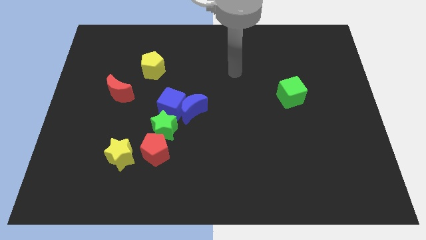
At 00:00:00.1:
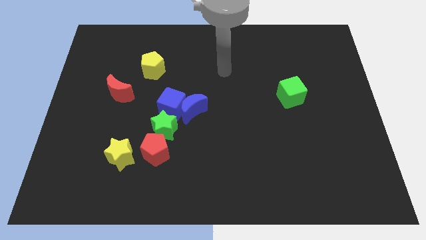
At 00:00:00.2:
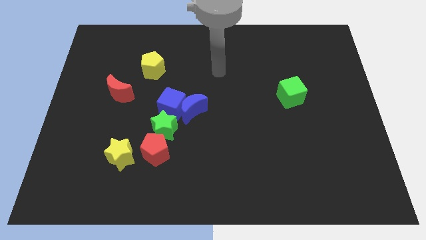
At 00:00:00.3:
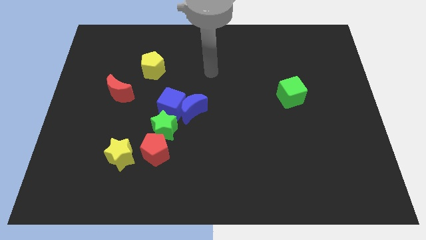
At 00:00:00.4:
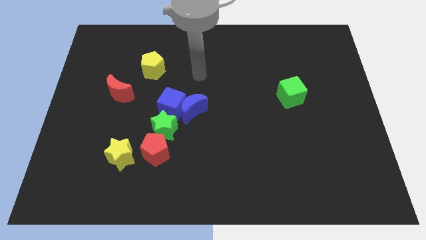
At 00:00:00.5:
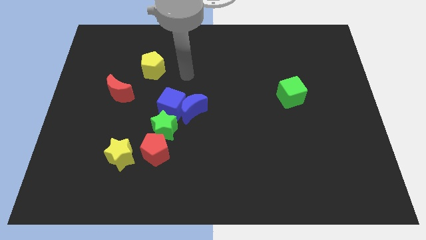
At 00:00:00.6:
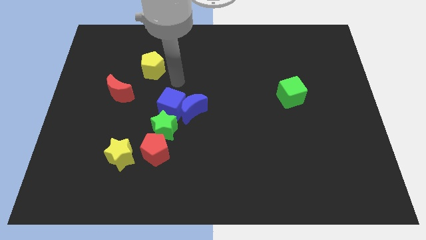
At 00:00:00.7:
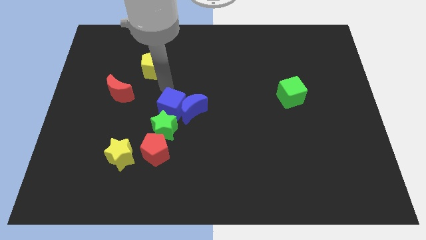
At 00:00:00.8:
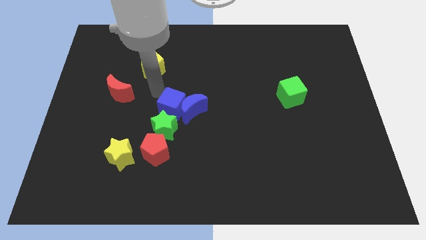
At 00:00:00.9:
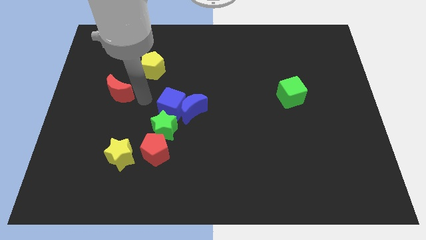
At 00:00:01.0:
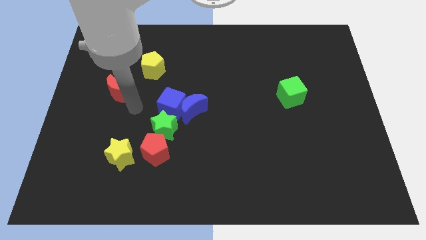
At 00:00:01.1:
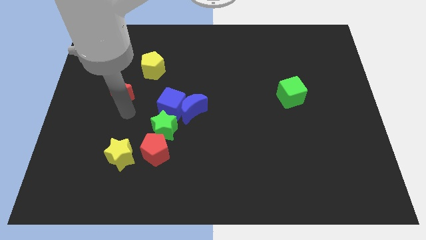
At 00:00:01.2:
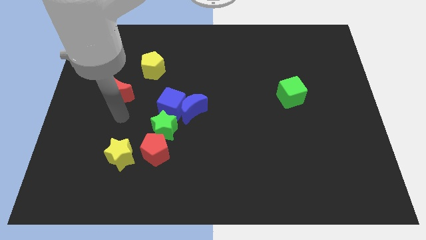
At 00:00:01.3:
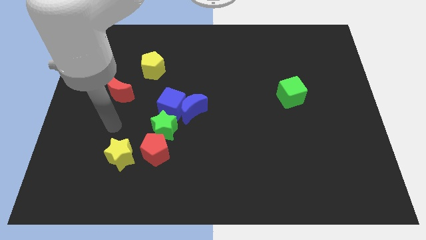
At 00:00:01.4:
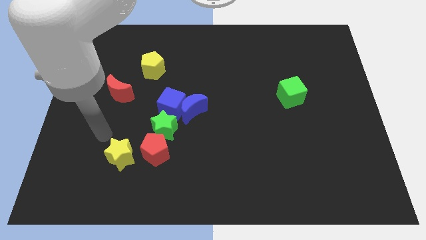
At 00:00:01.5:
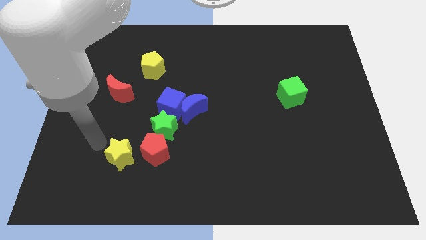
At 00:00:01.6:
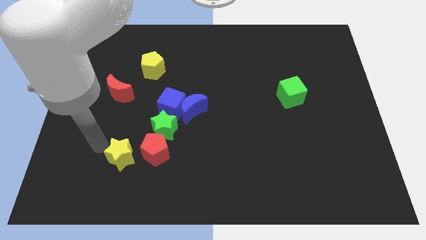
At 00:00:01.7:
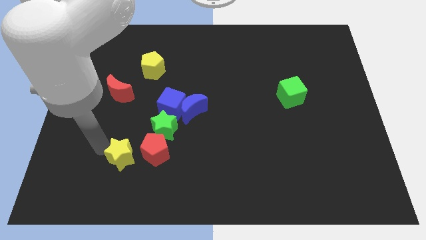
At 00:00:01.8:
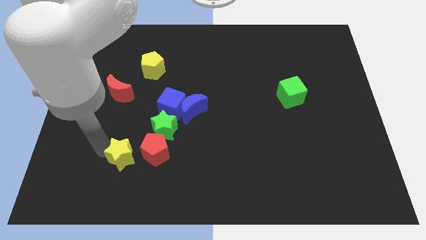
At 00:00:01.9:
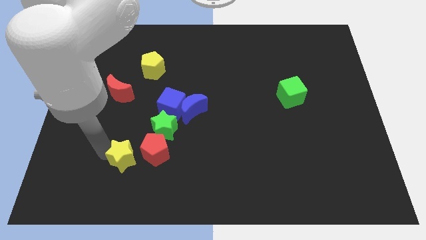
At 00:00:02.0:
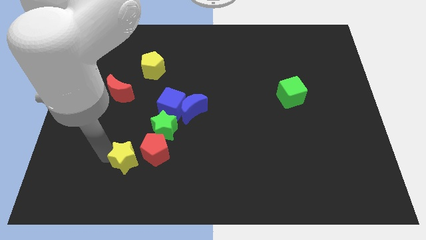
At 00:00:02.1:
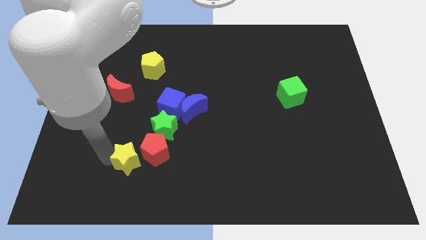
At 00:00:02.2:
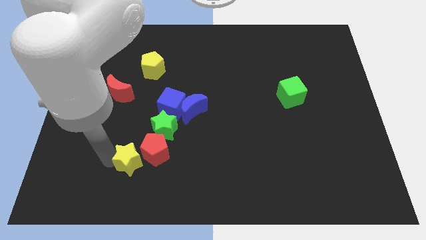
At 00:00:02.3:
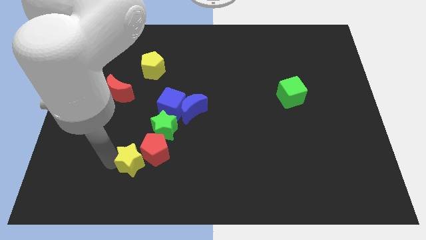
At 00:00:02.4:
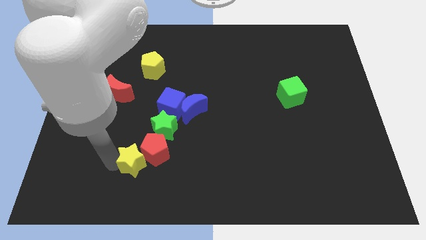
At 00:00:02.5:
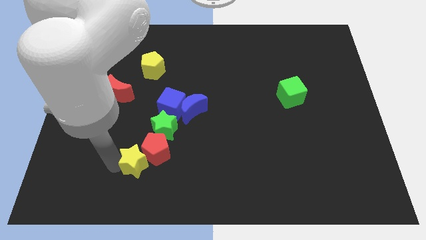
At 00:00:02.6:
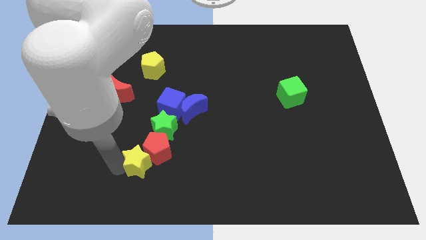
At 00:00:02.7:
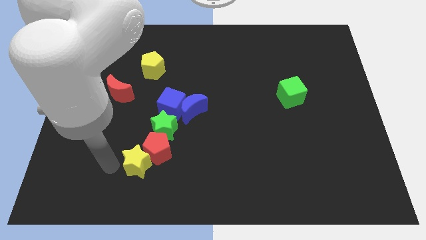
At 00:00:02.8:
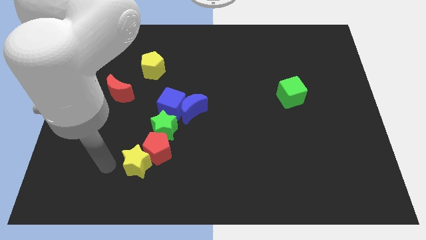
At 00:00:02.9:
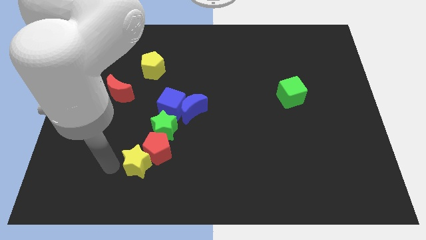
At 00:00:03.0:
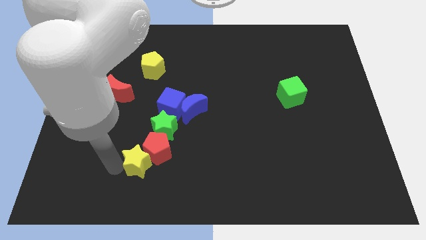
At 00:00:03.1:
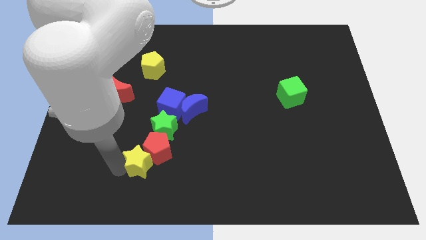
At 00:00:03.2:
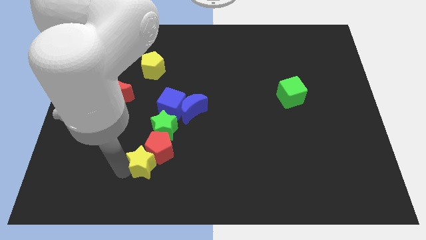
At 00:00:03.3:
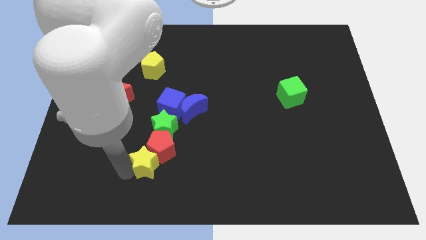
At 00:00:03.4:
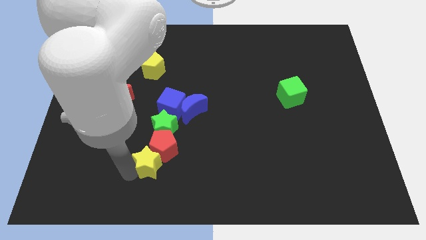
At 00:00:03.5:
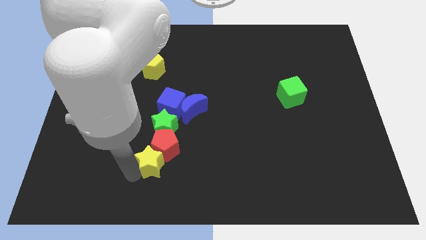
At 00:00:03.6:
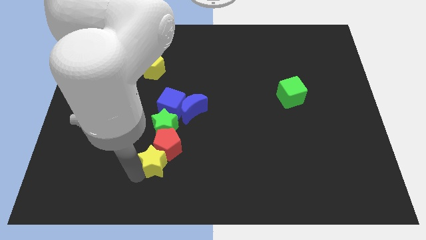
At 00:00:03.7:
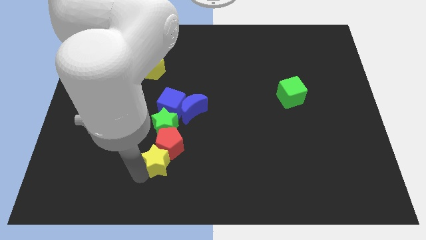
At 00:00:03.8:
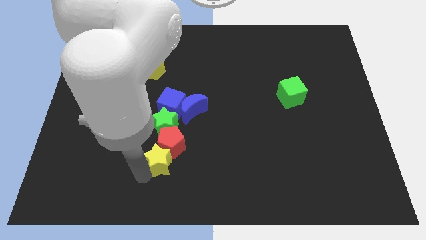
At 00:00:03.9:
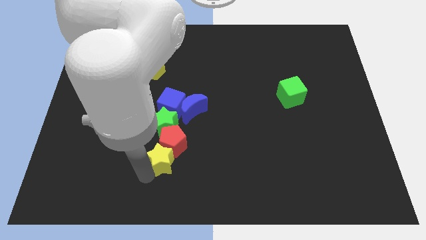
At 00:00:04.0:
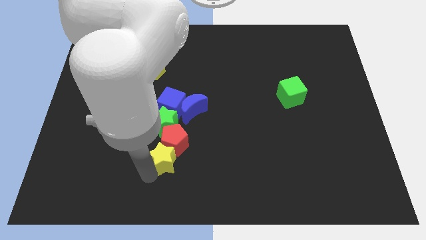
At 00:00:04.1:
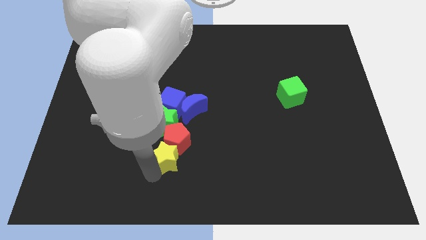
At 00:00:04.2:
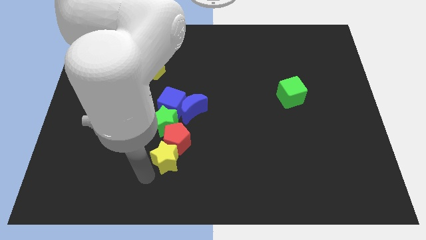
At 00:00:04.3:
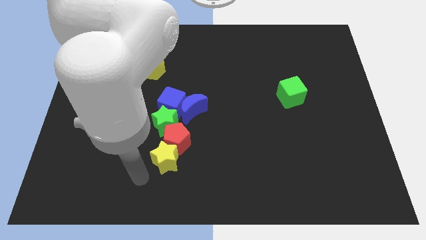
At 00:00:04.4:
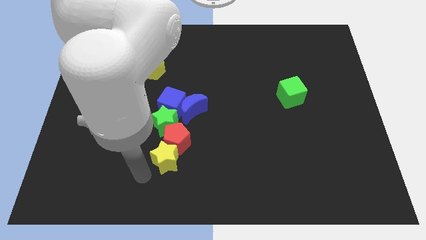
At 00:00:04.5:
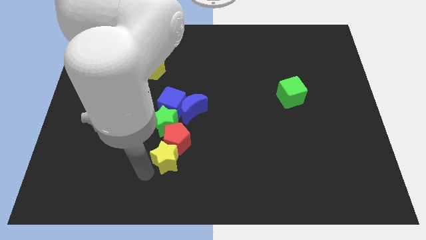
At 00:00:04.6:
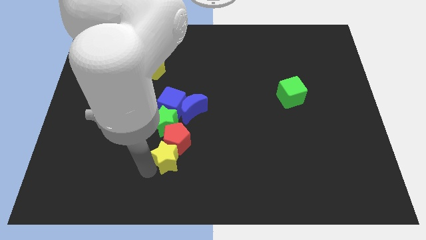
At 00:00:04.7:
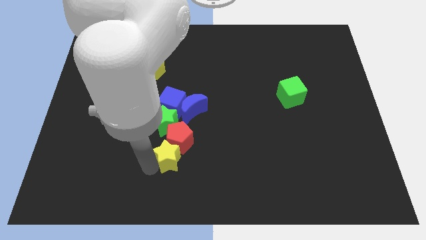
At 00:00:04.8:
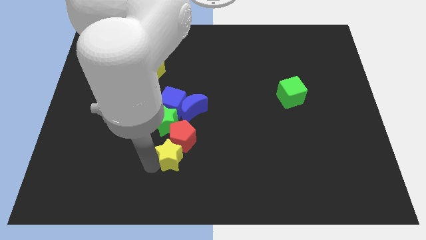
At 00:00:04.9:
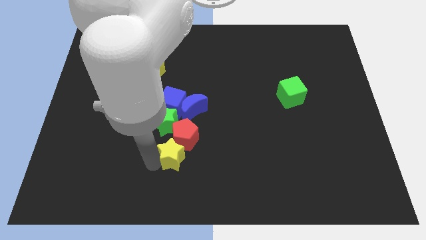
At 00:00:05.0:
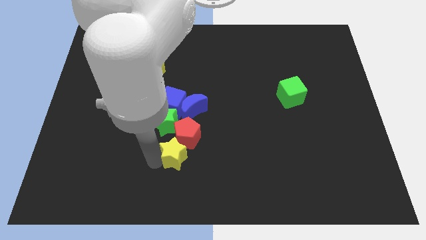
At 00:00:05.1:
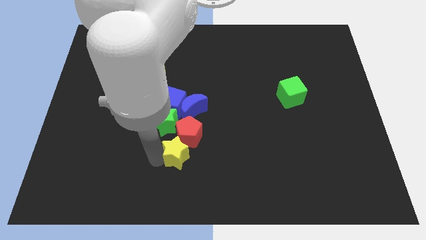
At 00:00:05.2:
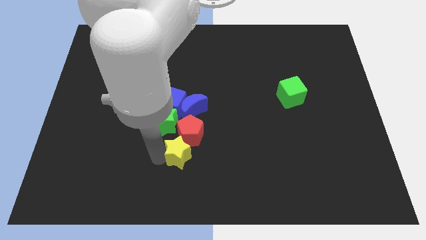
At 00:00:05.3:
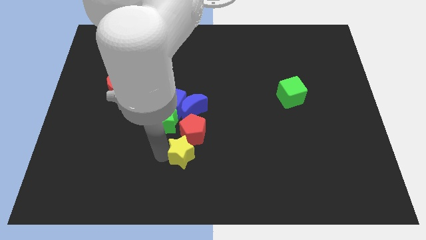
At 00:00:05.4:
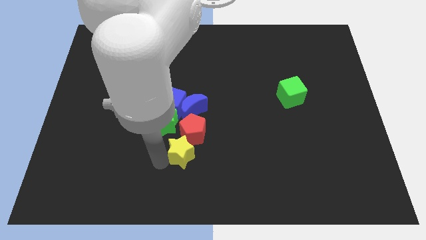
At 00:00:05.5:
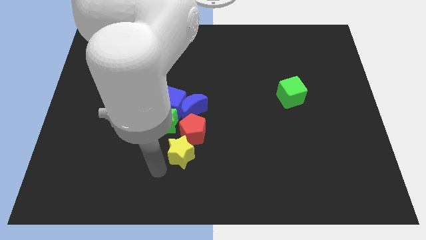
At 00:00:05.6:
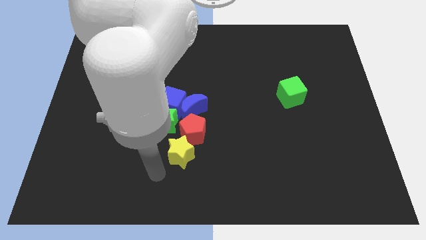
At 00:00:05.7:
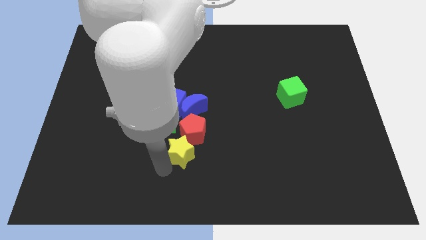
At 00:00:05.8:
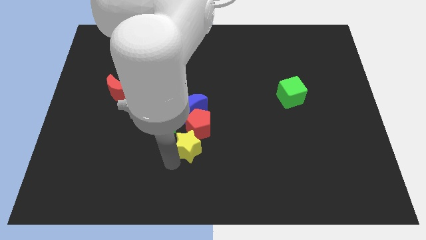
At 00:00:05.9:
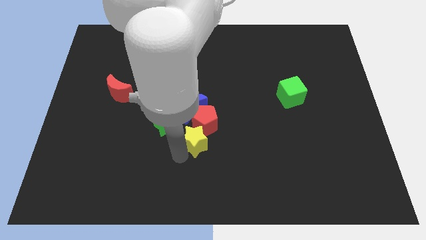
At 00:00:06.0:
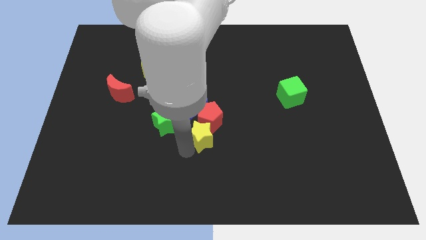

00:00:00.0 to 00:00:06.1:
push the yellow star diagonally down and to the right of the blue moon
